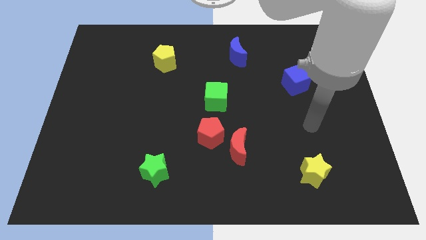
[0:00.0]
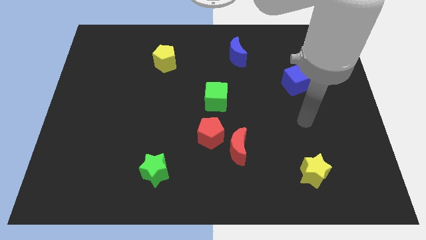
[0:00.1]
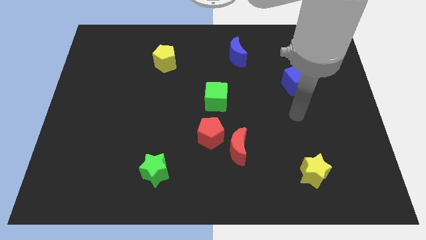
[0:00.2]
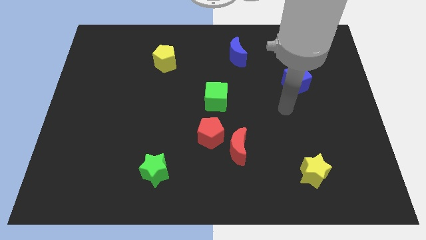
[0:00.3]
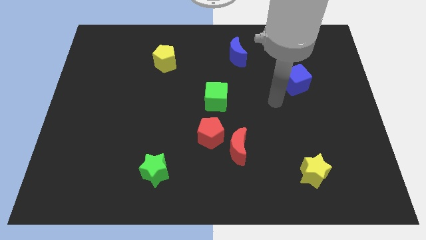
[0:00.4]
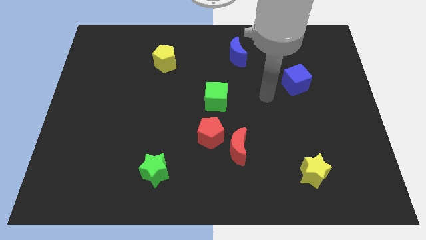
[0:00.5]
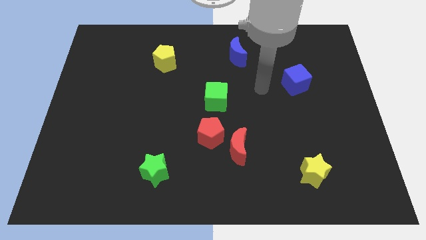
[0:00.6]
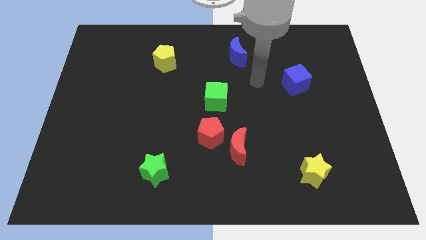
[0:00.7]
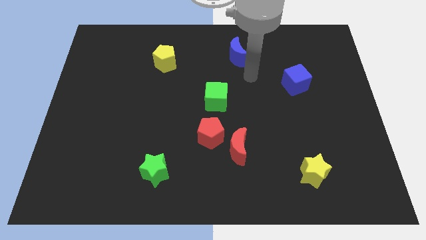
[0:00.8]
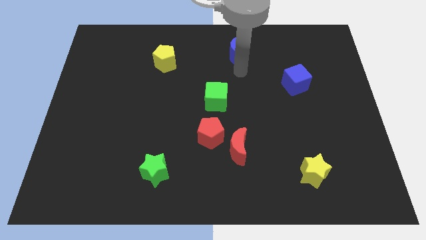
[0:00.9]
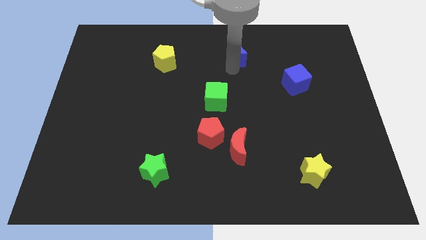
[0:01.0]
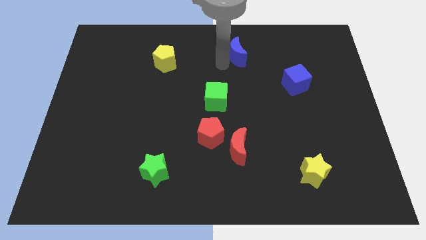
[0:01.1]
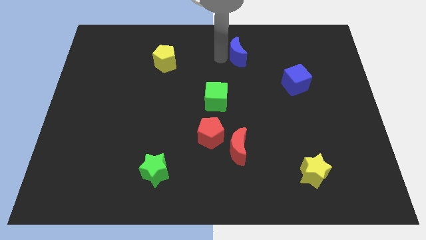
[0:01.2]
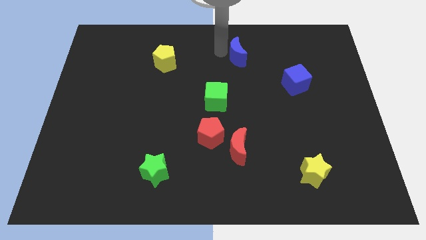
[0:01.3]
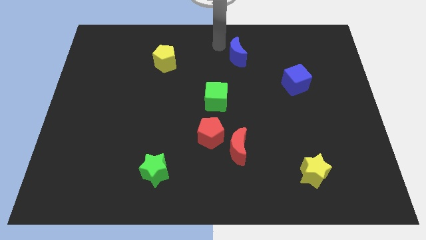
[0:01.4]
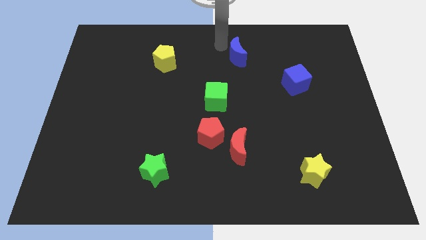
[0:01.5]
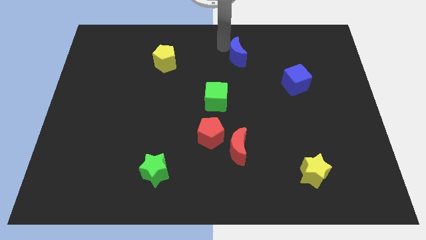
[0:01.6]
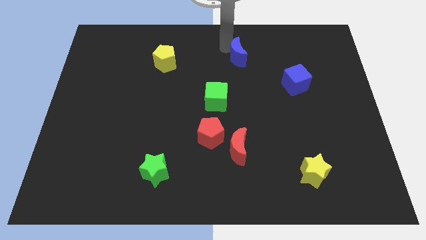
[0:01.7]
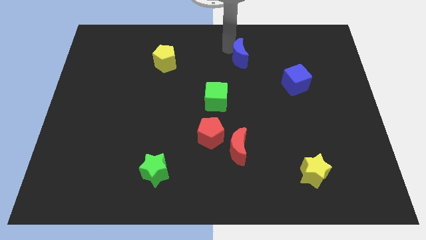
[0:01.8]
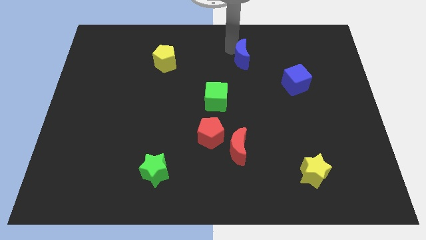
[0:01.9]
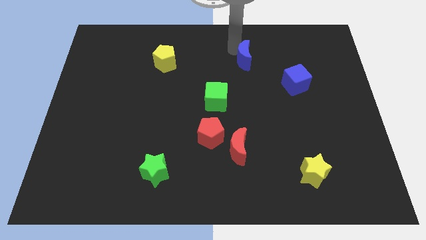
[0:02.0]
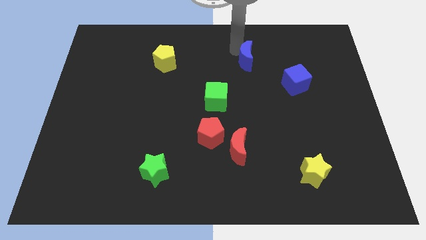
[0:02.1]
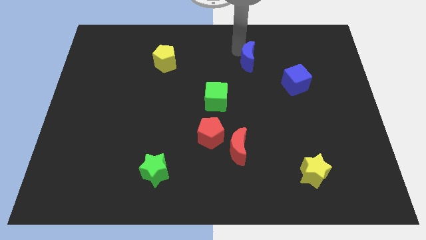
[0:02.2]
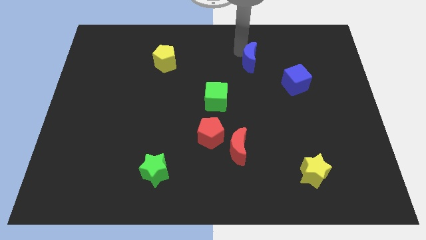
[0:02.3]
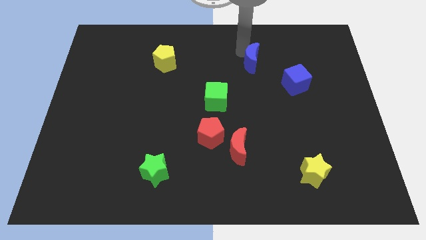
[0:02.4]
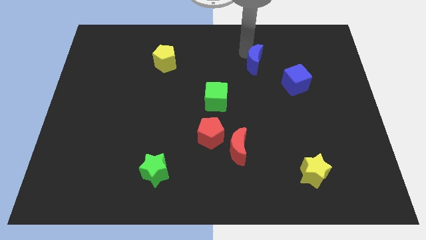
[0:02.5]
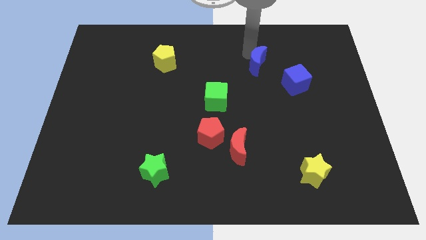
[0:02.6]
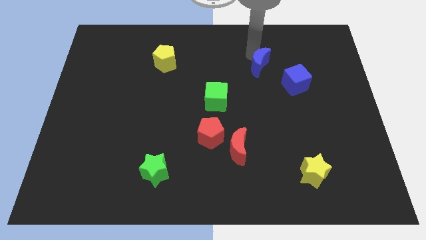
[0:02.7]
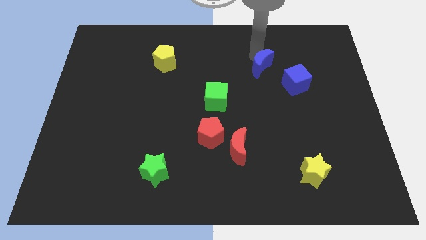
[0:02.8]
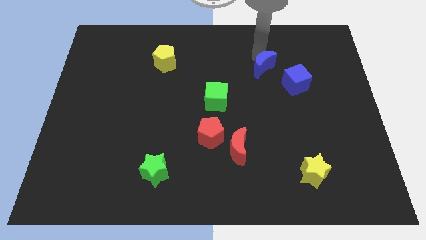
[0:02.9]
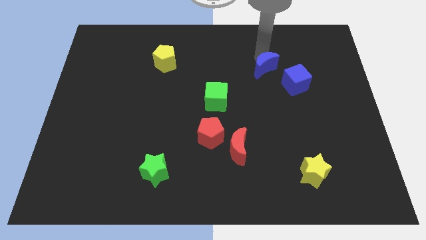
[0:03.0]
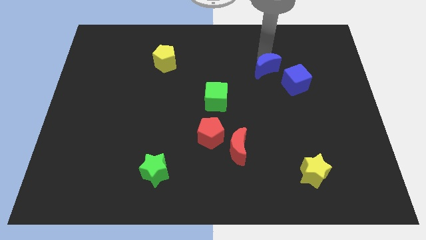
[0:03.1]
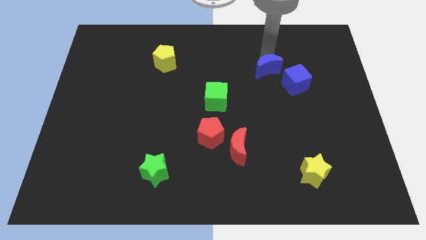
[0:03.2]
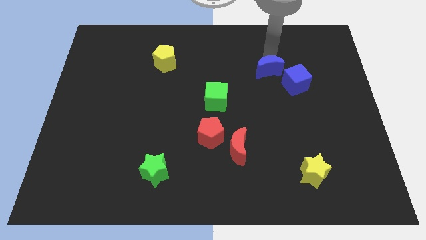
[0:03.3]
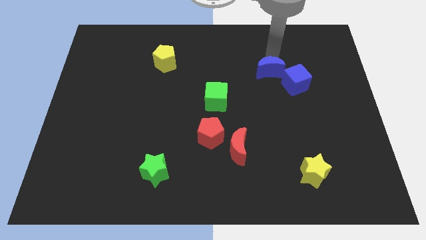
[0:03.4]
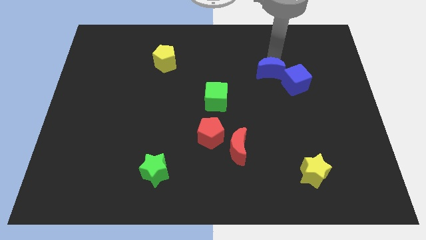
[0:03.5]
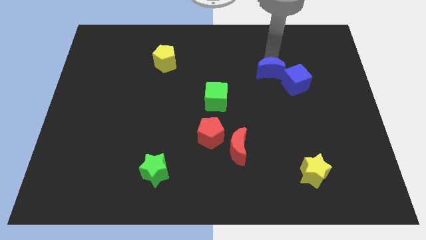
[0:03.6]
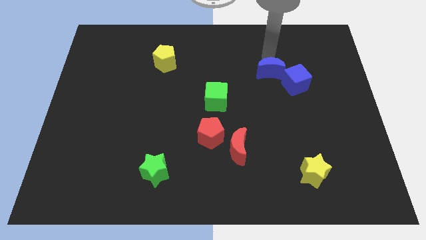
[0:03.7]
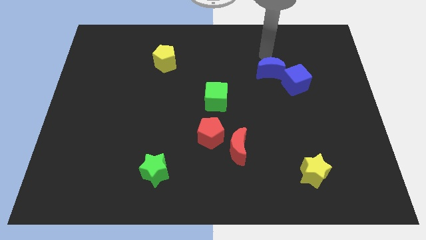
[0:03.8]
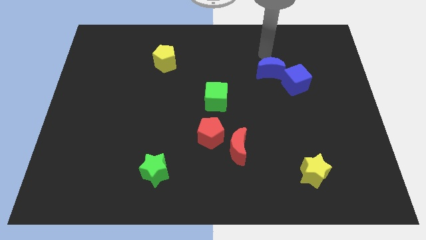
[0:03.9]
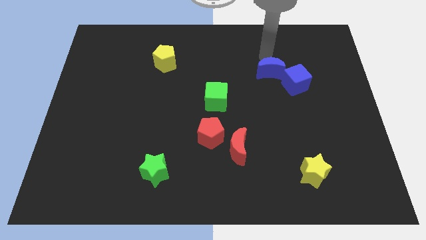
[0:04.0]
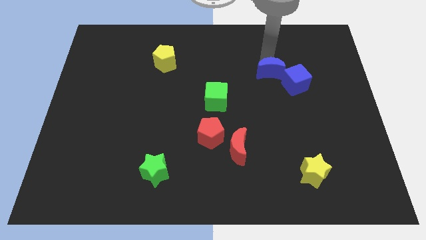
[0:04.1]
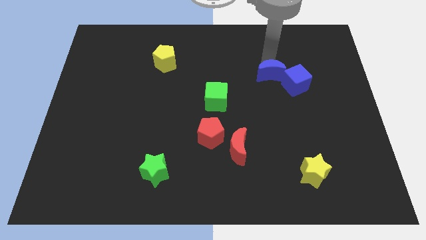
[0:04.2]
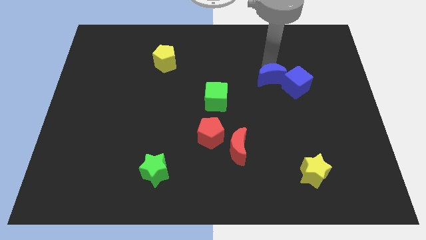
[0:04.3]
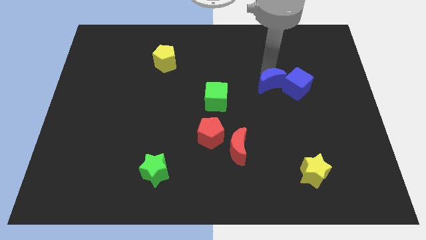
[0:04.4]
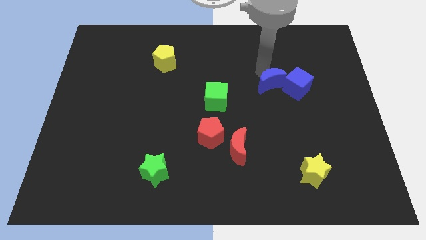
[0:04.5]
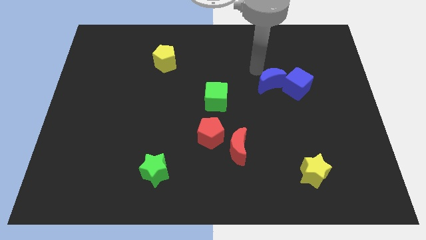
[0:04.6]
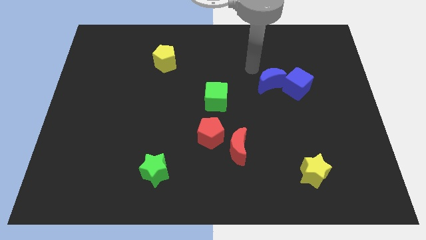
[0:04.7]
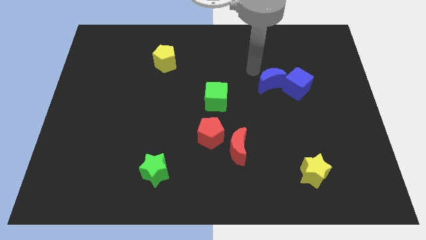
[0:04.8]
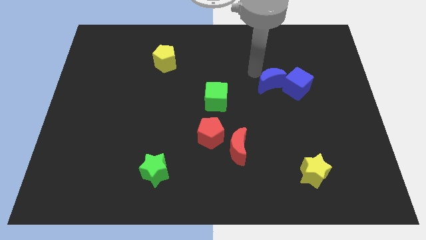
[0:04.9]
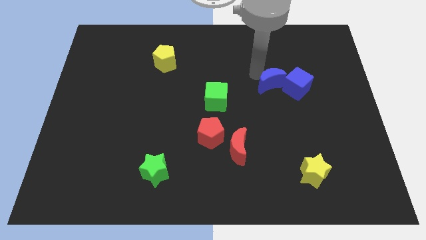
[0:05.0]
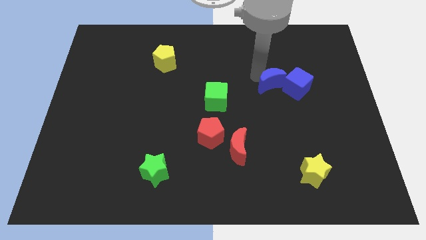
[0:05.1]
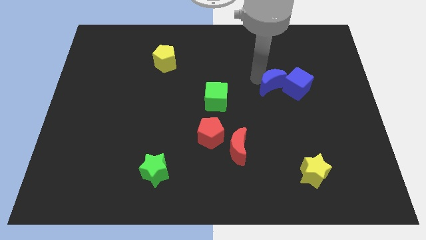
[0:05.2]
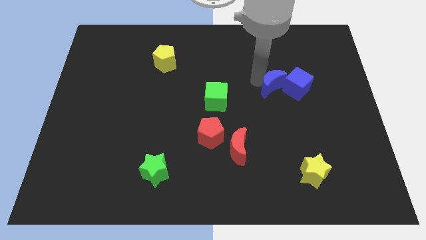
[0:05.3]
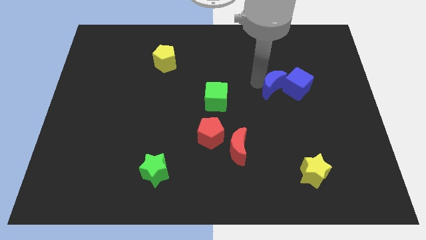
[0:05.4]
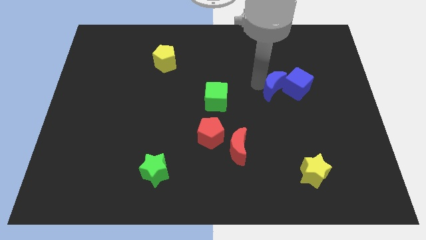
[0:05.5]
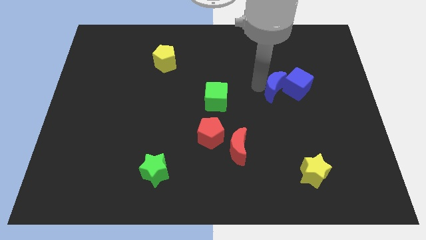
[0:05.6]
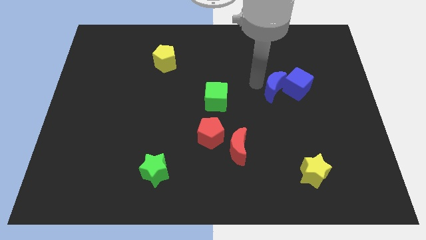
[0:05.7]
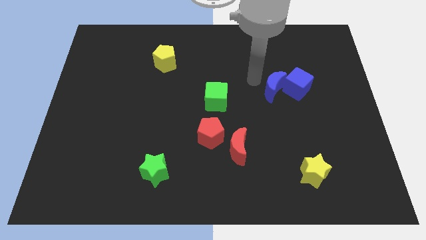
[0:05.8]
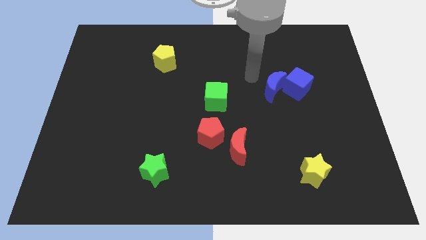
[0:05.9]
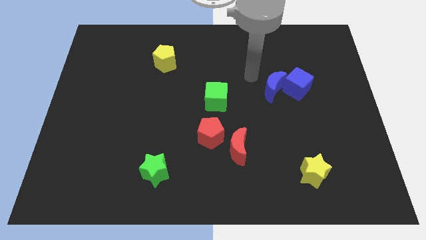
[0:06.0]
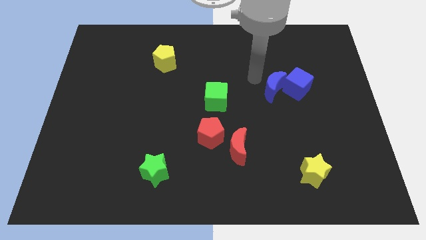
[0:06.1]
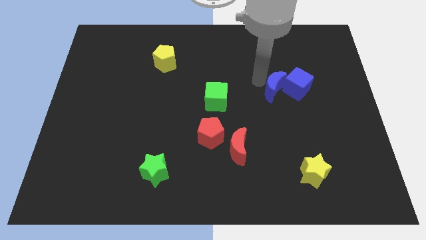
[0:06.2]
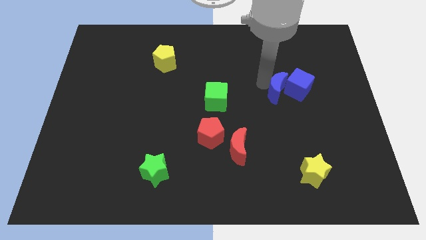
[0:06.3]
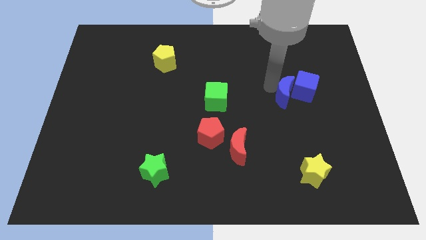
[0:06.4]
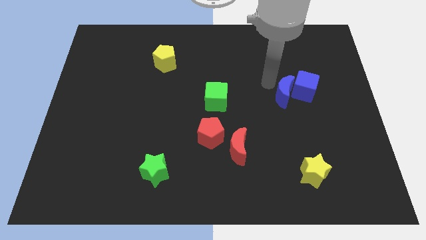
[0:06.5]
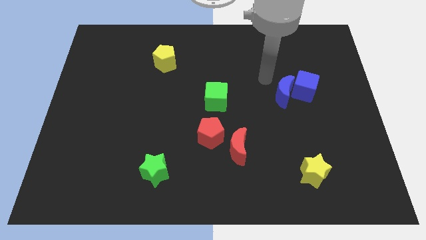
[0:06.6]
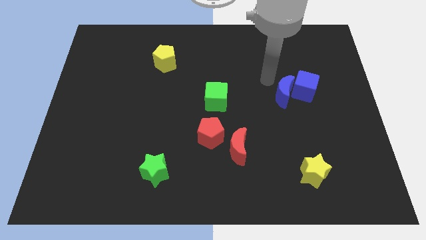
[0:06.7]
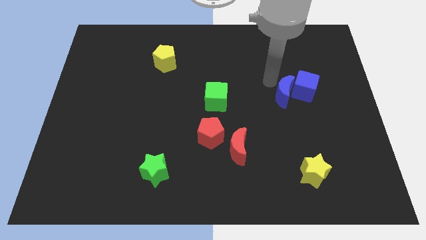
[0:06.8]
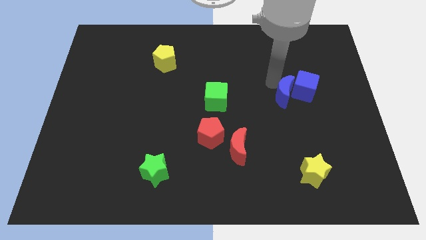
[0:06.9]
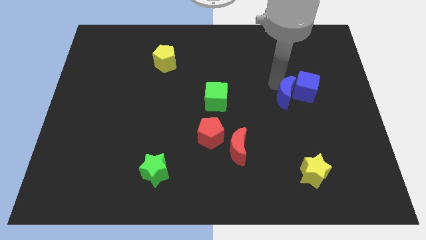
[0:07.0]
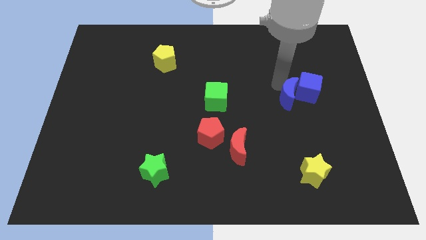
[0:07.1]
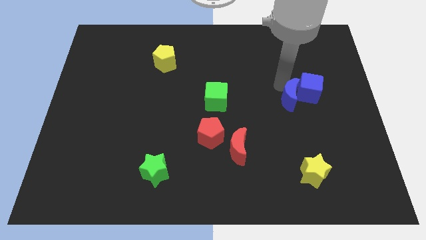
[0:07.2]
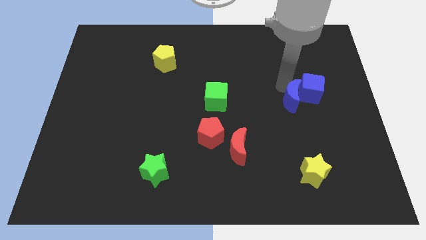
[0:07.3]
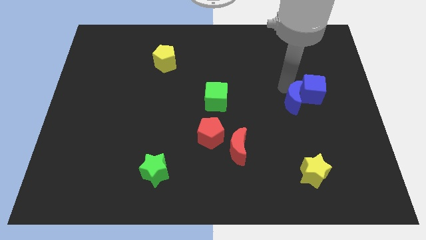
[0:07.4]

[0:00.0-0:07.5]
push the blue moon down and then right

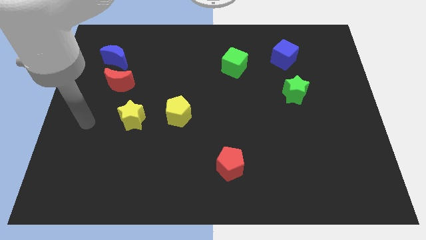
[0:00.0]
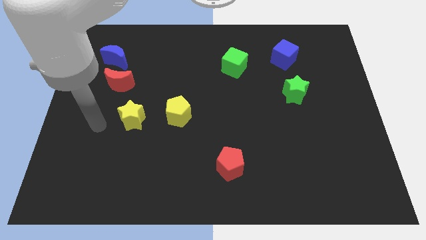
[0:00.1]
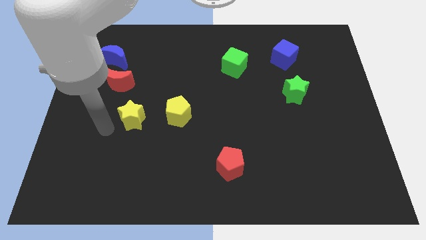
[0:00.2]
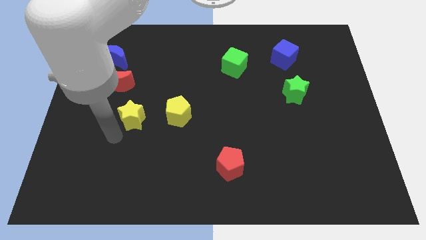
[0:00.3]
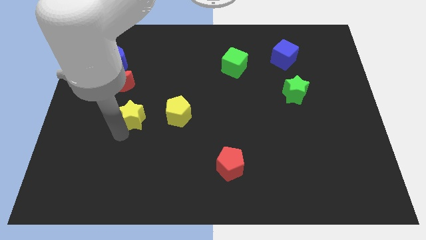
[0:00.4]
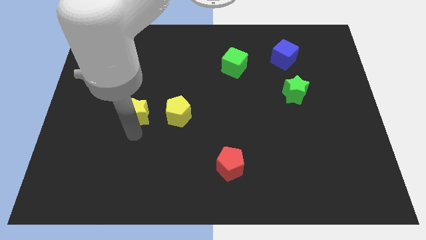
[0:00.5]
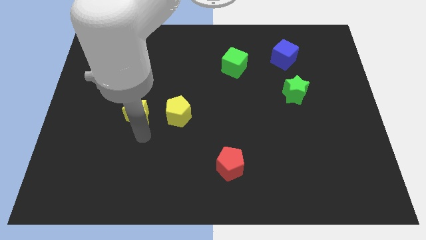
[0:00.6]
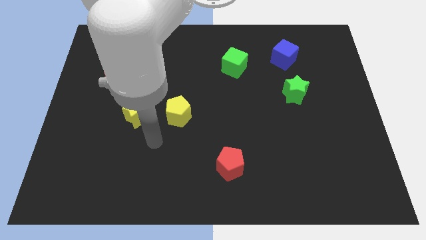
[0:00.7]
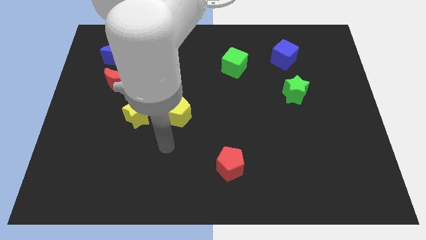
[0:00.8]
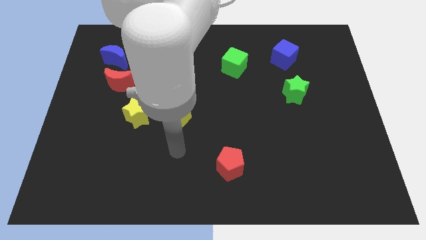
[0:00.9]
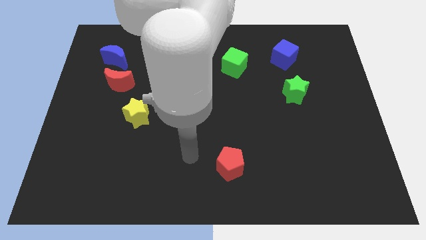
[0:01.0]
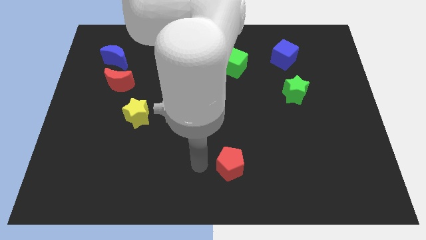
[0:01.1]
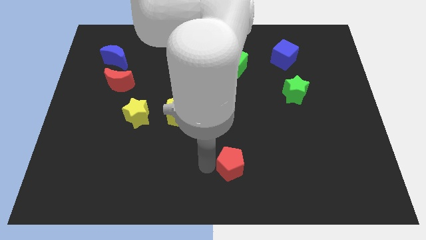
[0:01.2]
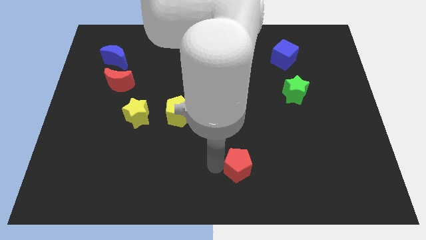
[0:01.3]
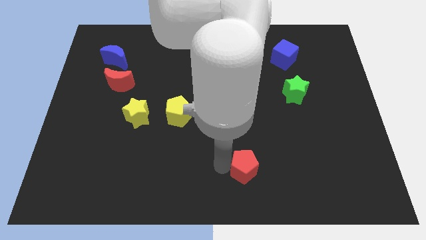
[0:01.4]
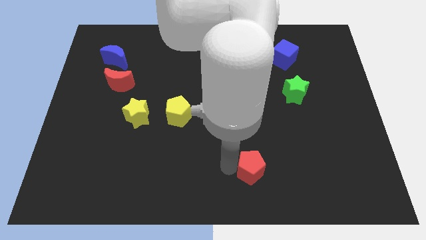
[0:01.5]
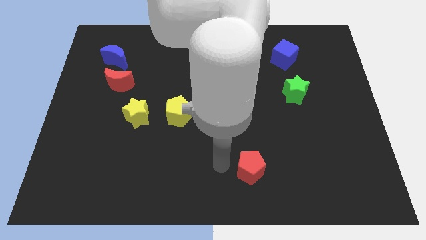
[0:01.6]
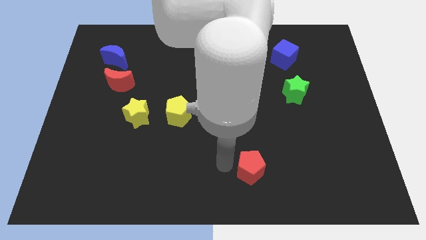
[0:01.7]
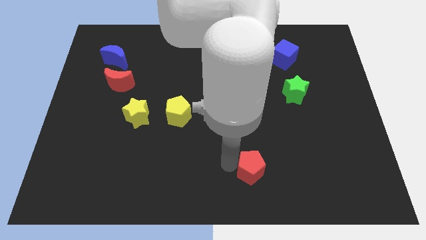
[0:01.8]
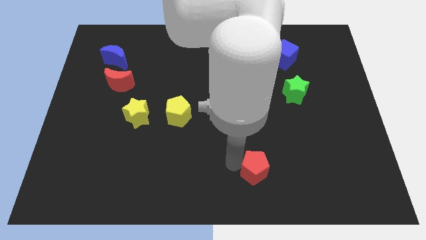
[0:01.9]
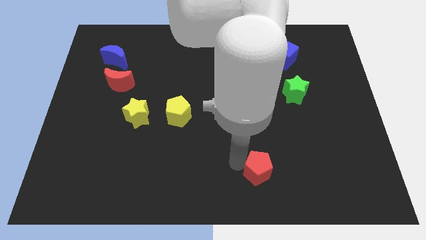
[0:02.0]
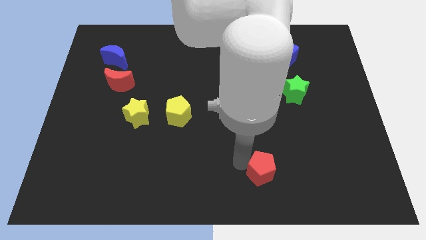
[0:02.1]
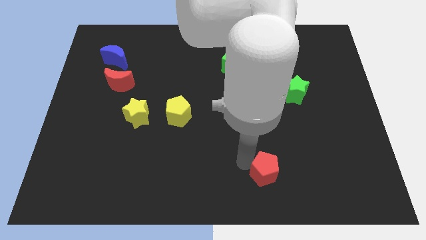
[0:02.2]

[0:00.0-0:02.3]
slightly push the red pentagon right
